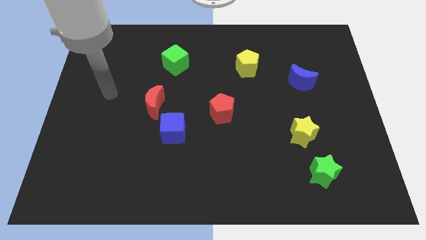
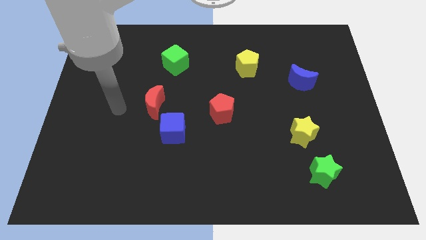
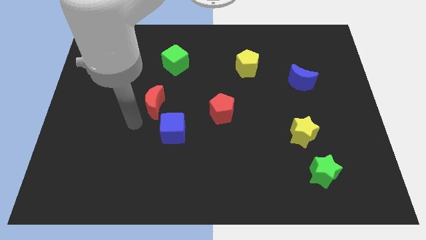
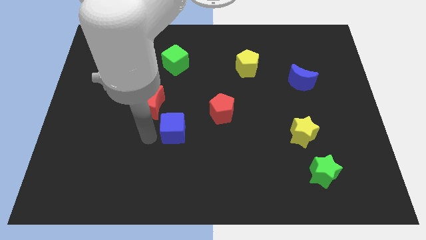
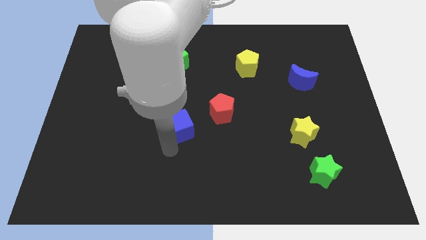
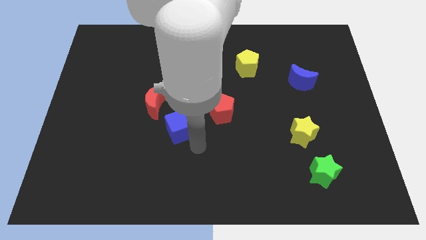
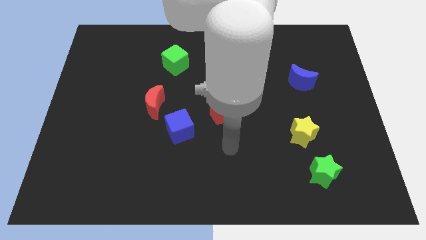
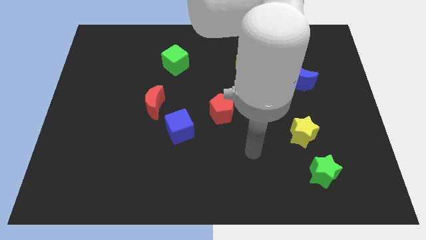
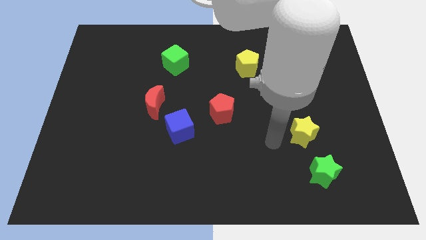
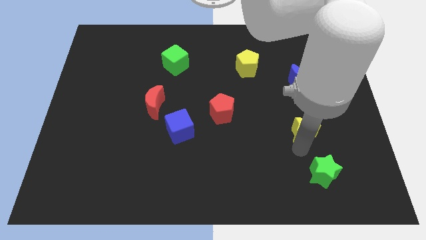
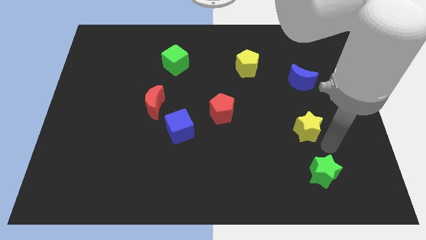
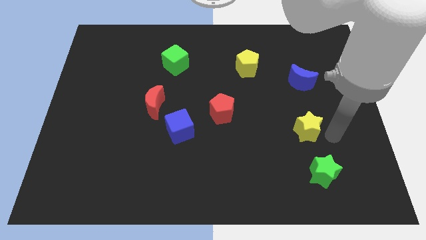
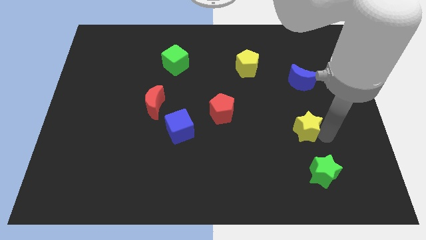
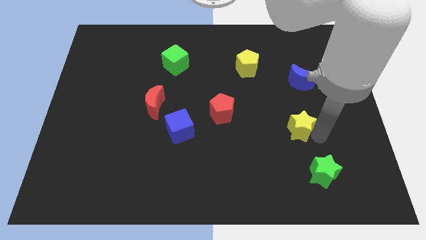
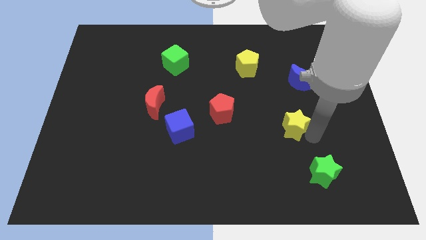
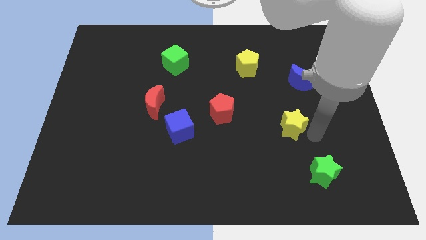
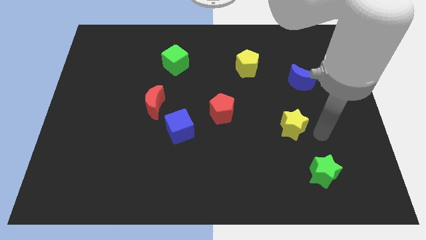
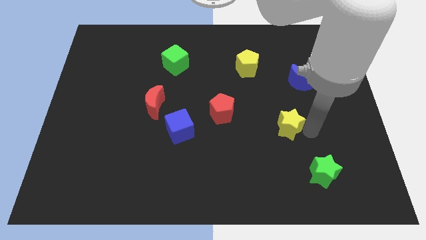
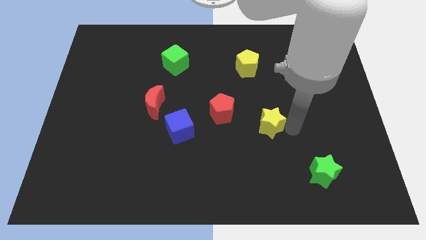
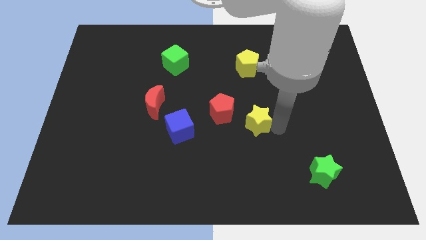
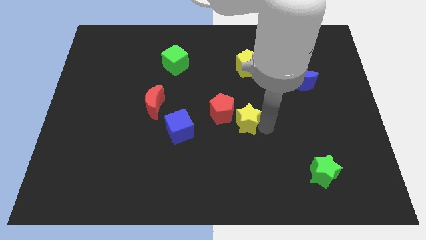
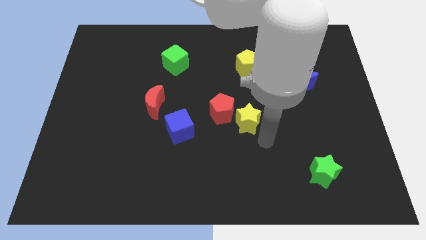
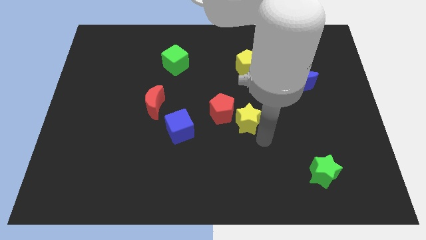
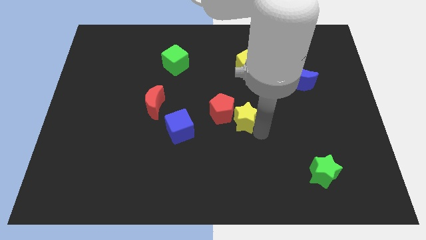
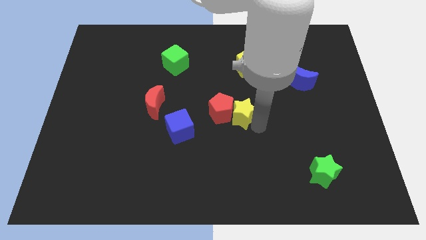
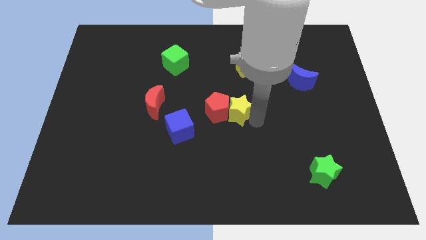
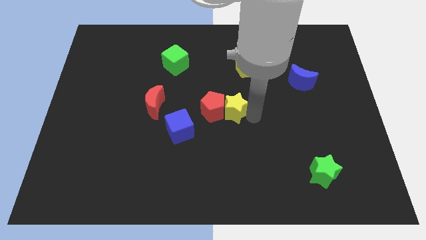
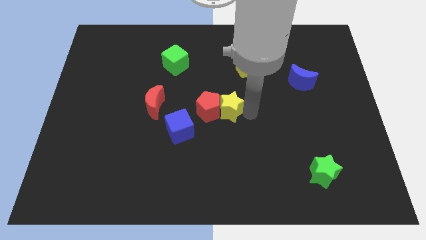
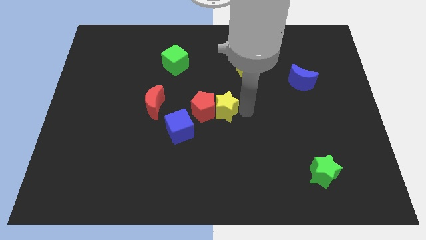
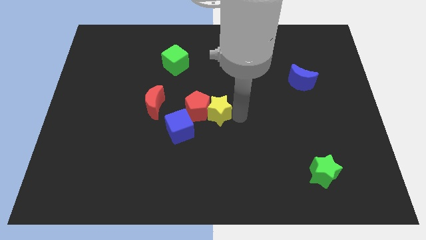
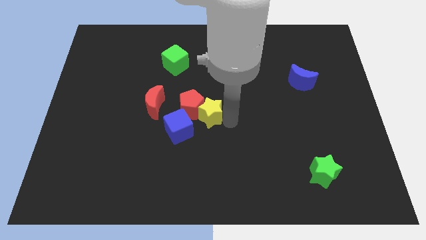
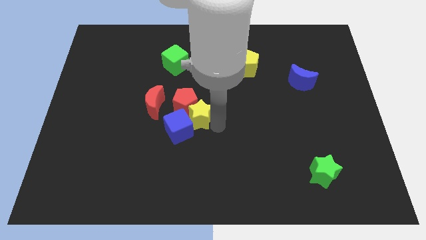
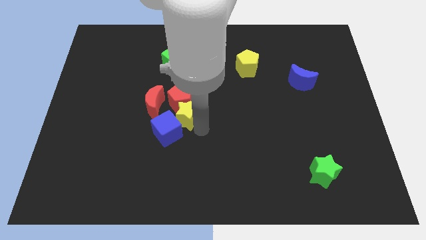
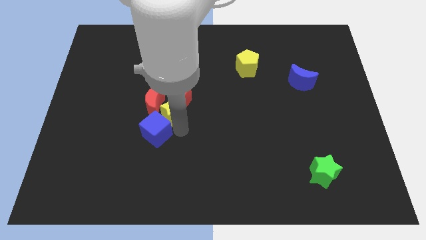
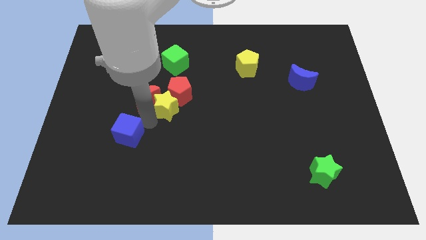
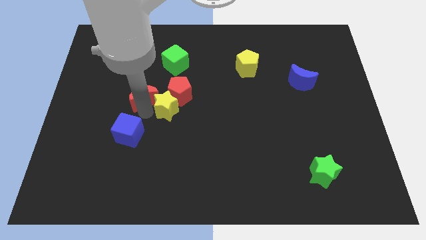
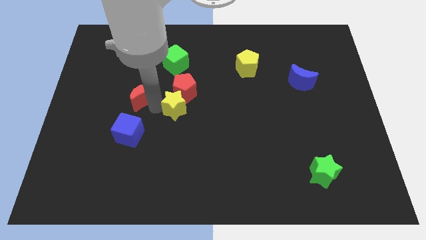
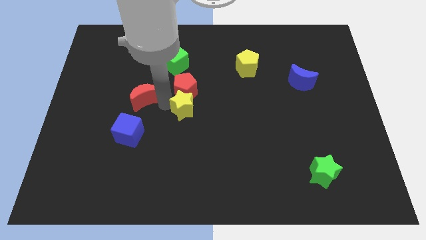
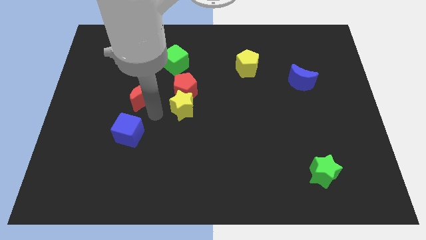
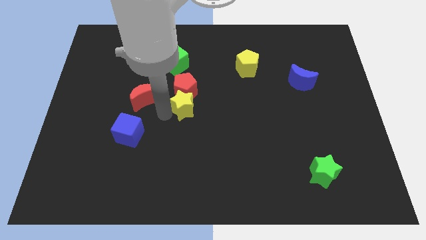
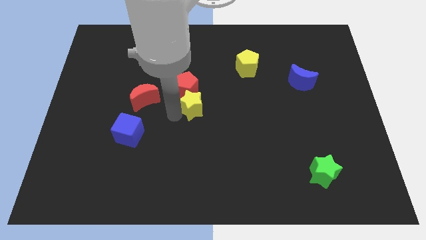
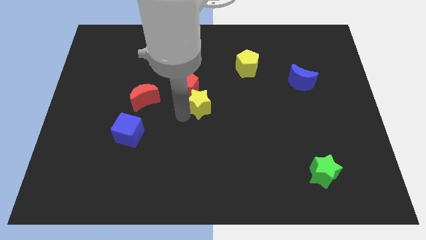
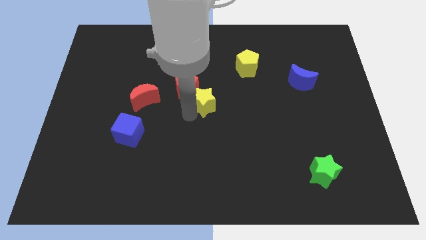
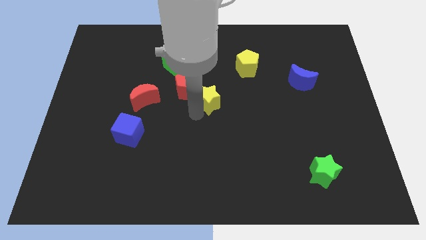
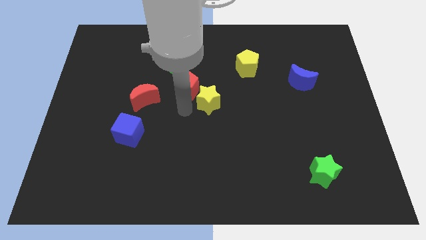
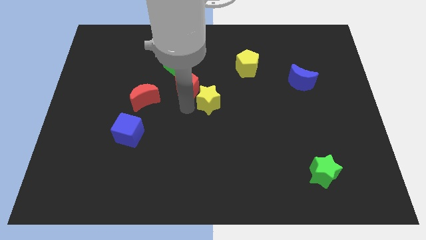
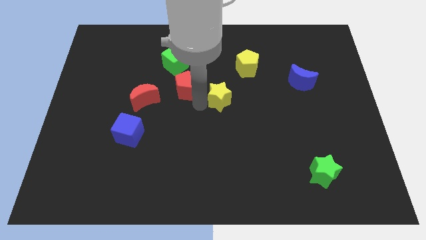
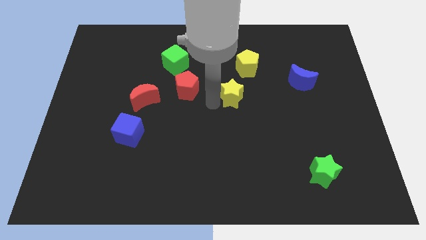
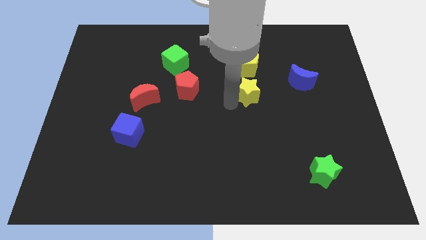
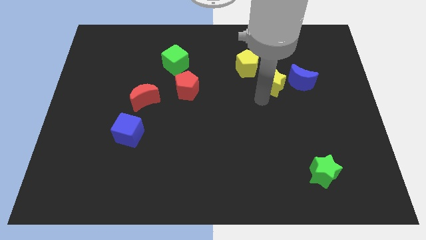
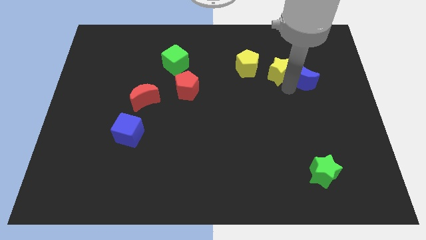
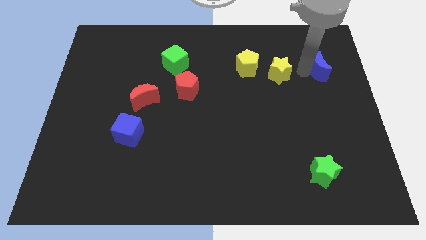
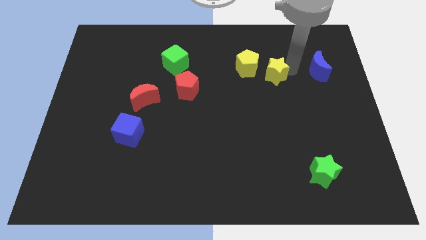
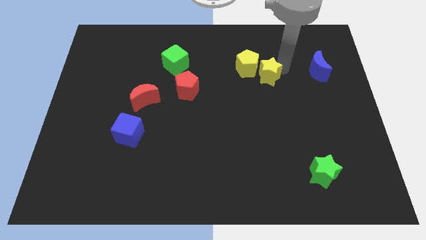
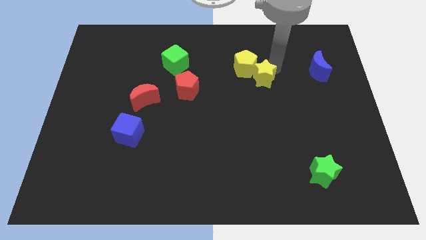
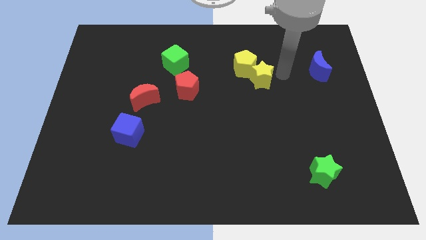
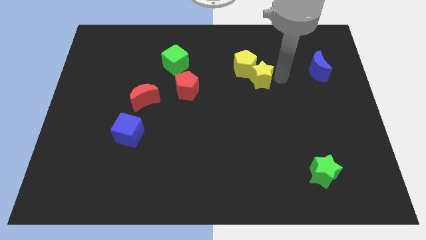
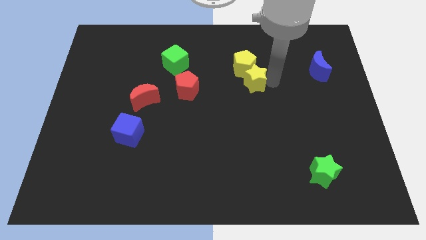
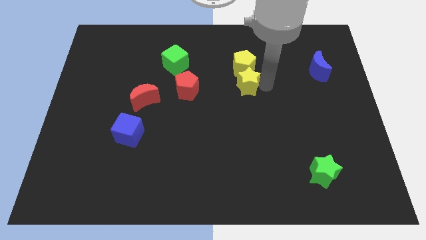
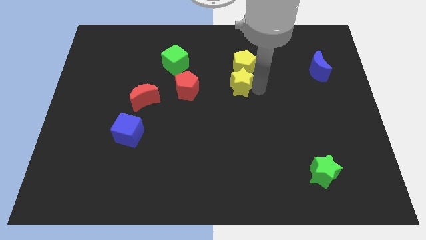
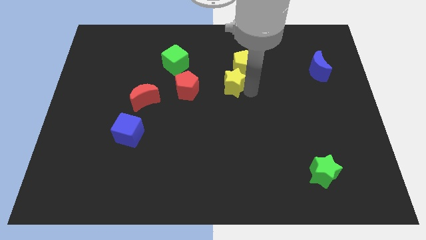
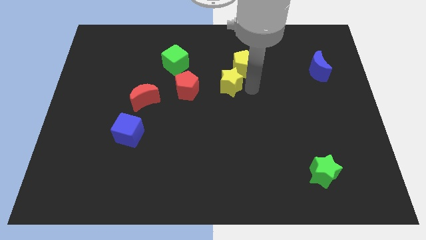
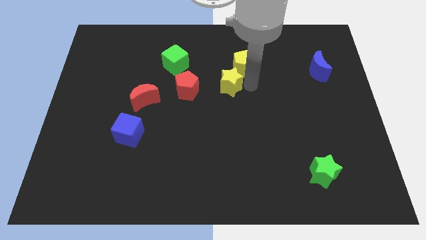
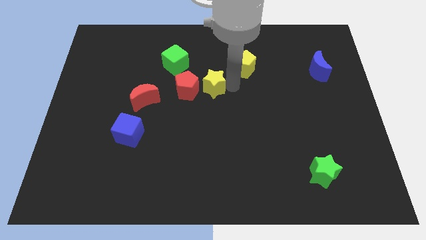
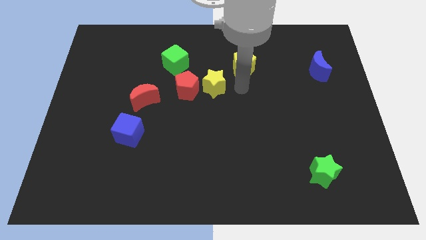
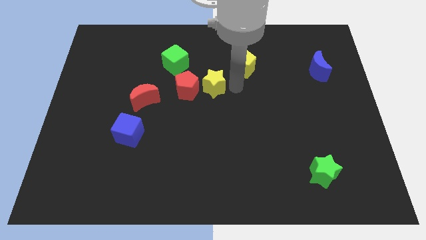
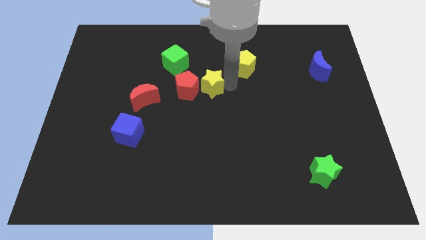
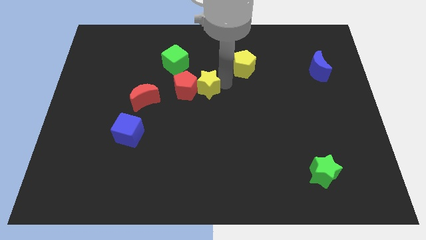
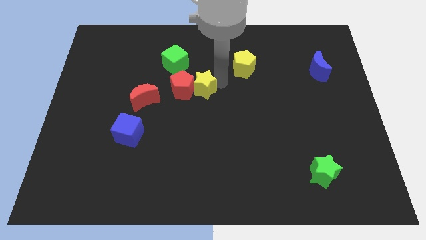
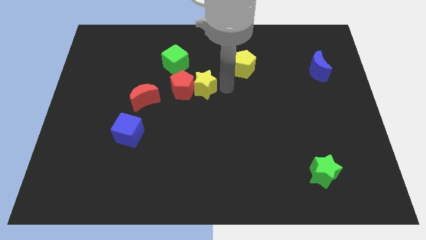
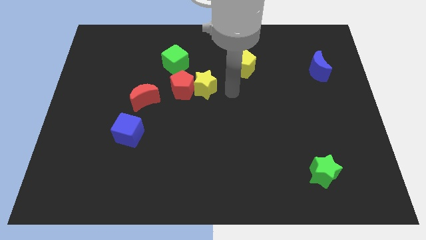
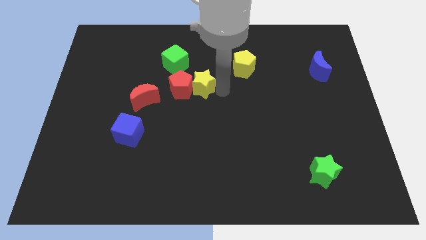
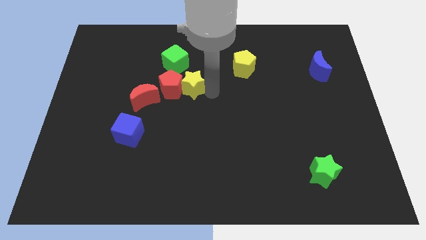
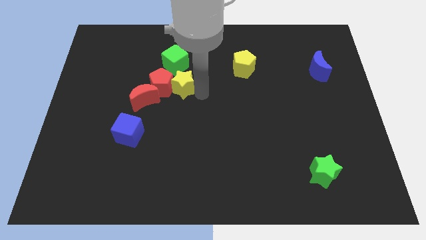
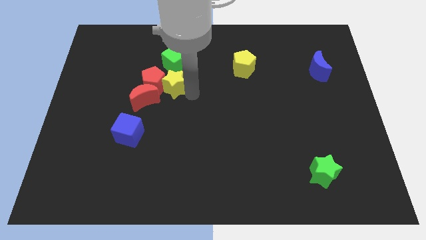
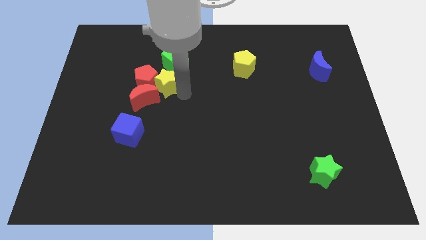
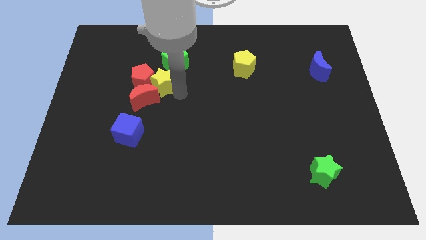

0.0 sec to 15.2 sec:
push the yellow star to the top of the red moon
